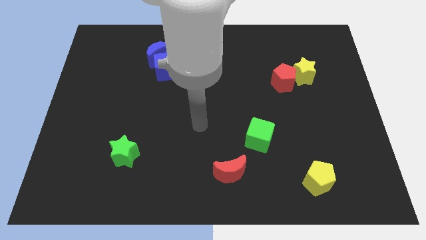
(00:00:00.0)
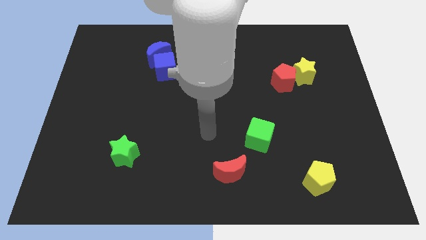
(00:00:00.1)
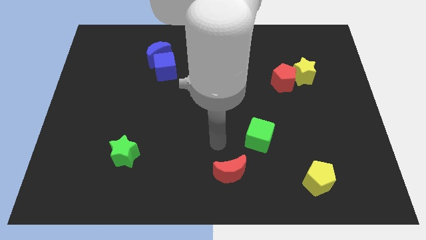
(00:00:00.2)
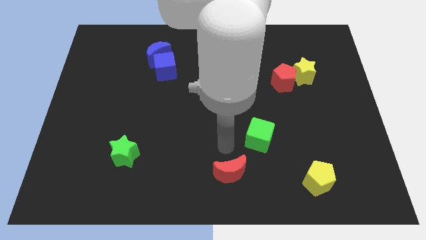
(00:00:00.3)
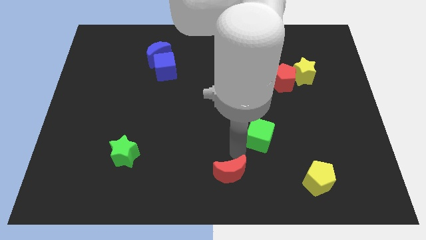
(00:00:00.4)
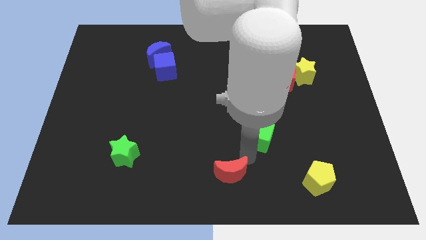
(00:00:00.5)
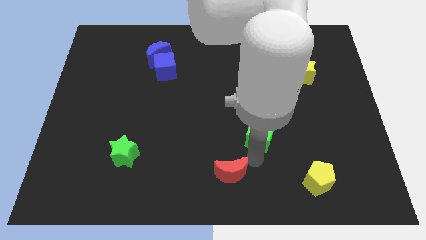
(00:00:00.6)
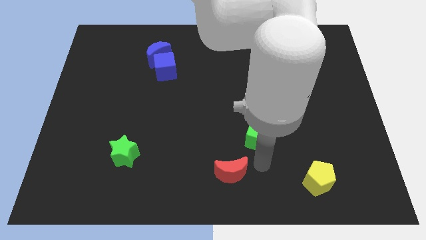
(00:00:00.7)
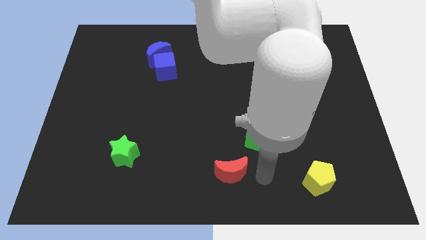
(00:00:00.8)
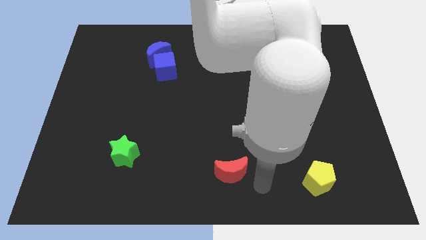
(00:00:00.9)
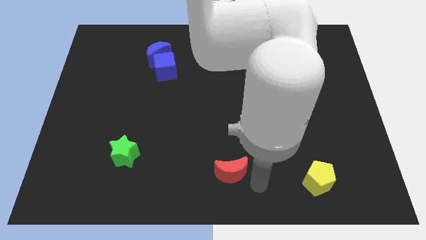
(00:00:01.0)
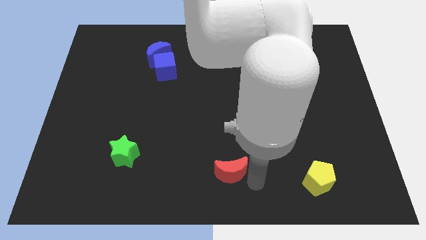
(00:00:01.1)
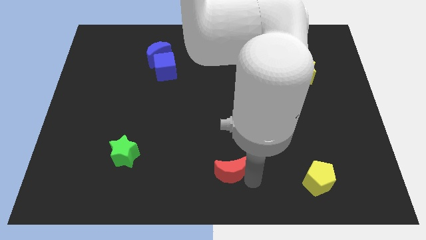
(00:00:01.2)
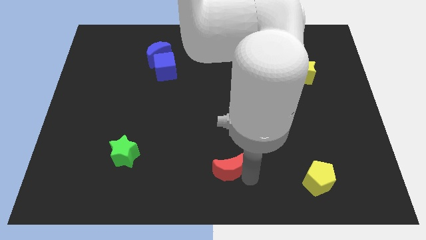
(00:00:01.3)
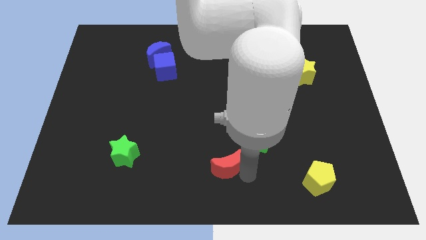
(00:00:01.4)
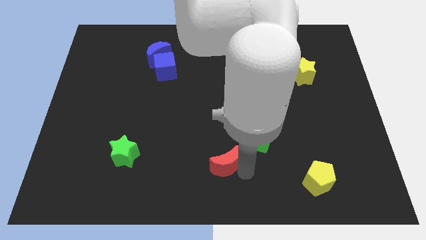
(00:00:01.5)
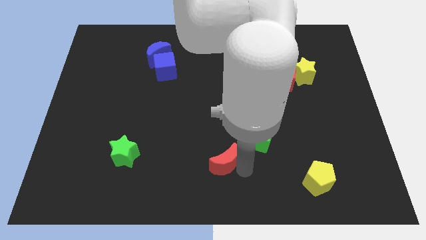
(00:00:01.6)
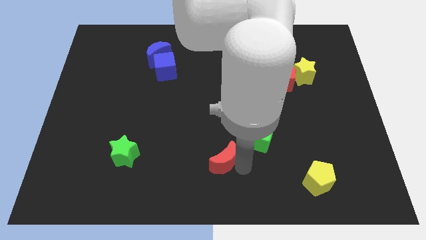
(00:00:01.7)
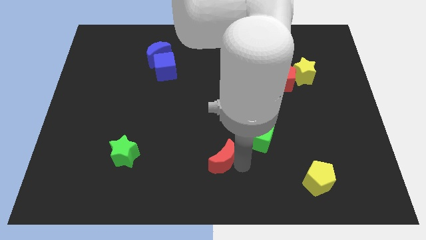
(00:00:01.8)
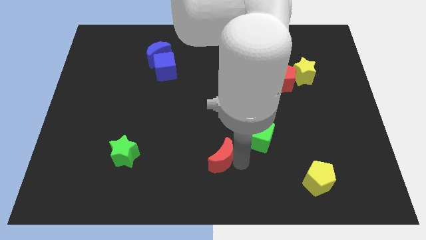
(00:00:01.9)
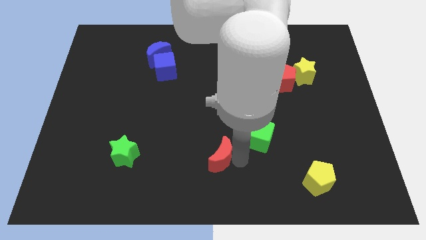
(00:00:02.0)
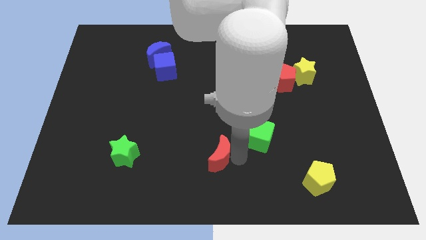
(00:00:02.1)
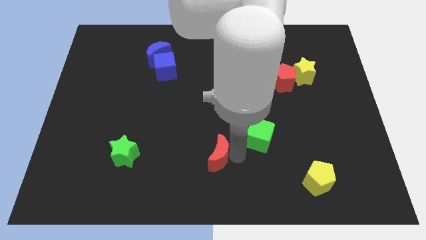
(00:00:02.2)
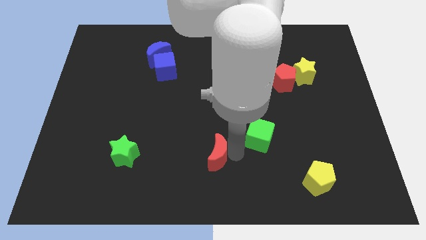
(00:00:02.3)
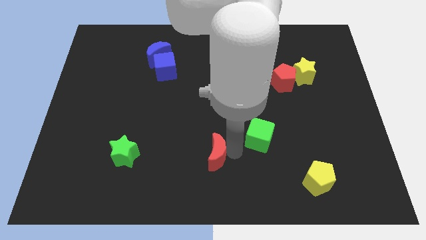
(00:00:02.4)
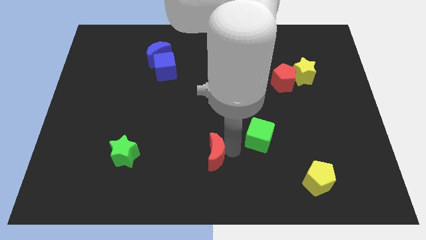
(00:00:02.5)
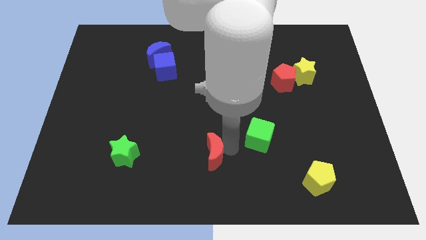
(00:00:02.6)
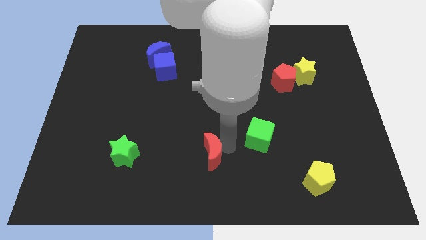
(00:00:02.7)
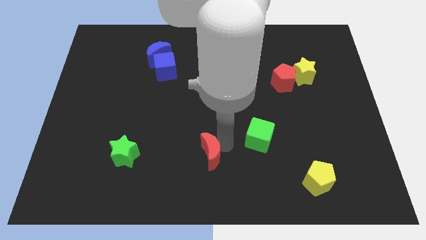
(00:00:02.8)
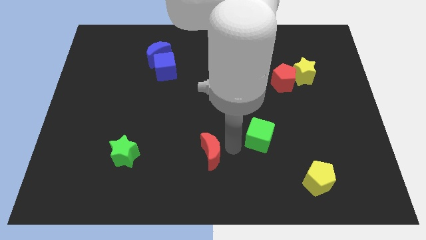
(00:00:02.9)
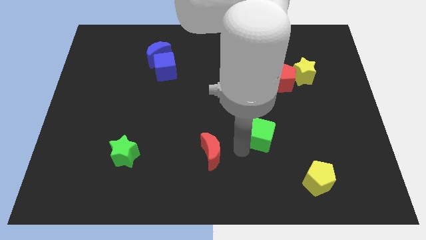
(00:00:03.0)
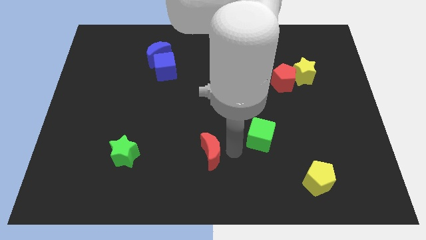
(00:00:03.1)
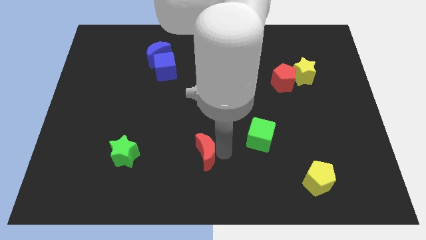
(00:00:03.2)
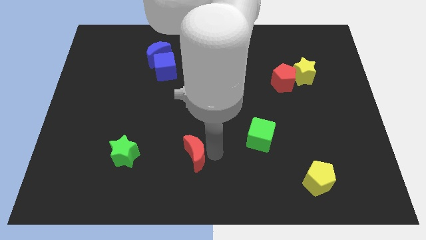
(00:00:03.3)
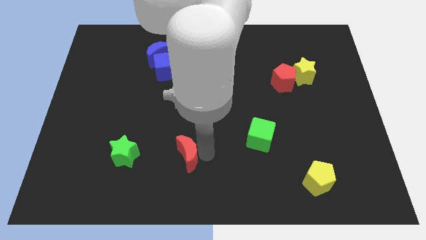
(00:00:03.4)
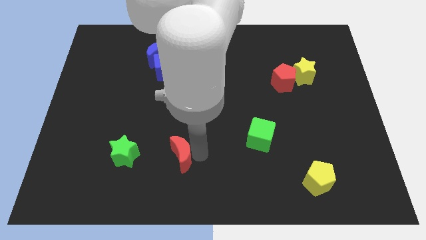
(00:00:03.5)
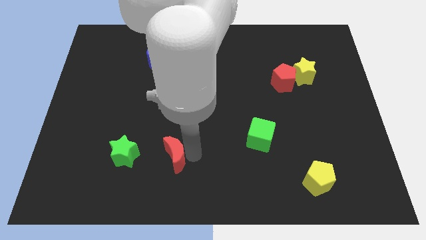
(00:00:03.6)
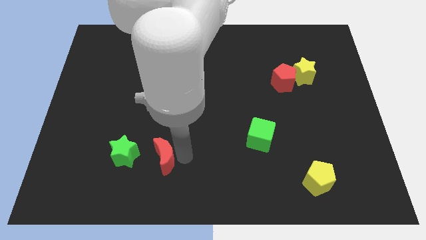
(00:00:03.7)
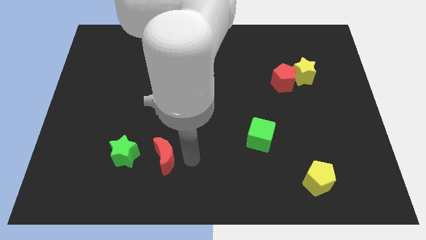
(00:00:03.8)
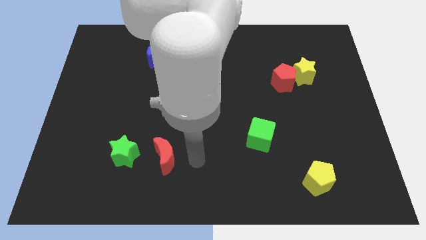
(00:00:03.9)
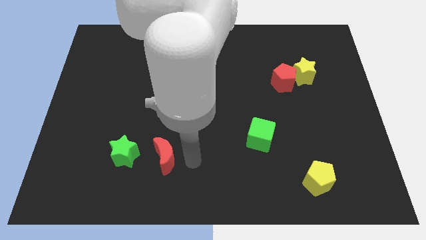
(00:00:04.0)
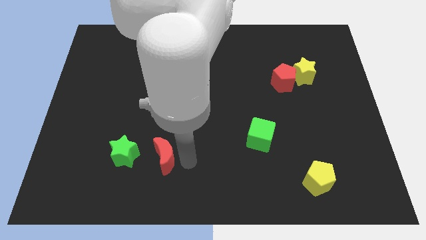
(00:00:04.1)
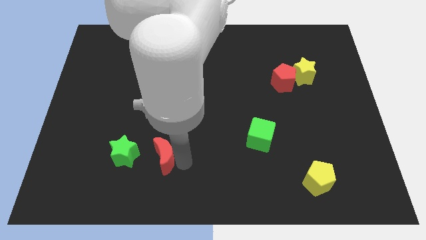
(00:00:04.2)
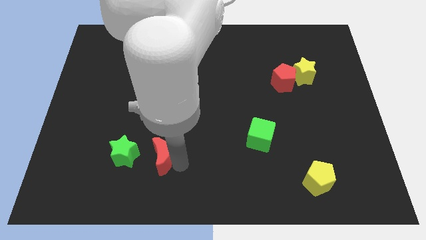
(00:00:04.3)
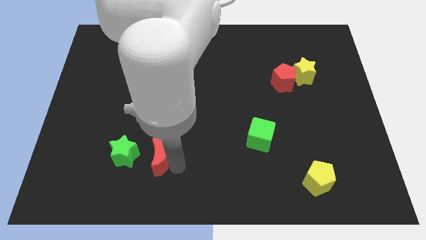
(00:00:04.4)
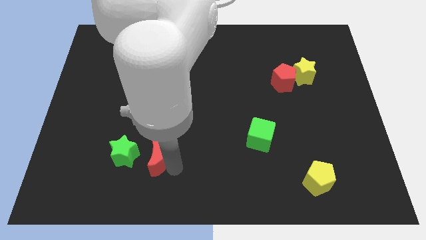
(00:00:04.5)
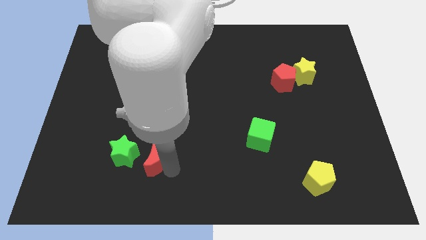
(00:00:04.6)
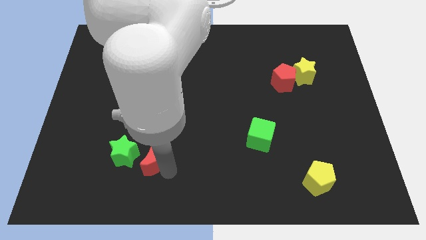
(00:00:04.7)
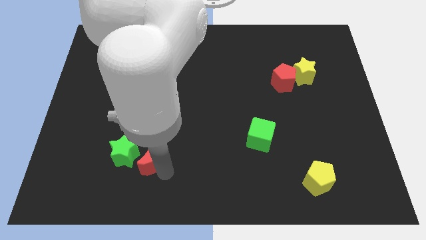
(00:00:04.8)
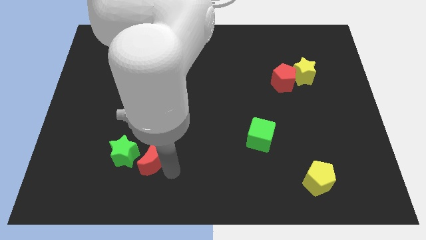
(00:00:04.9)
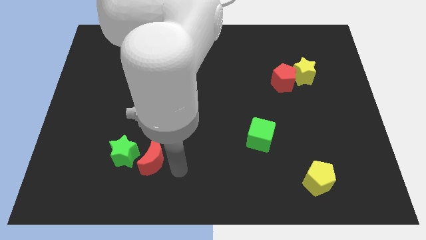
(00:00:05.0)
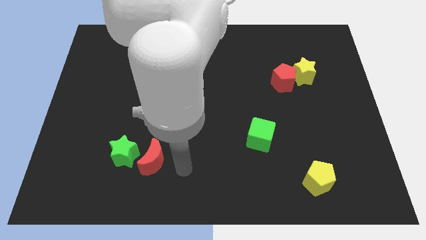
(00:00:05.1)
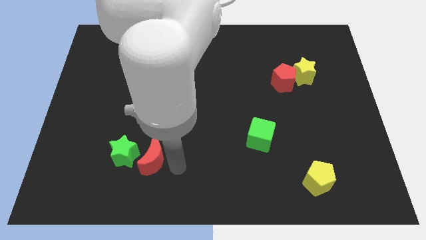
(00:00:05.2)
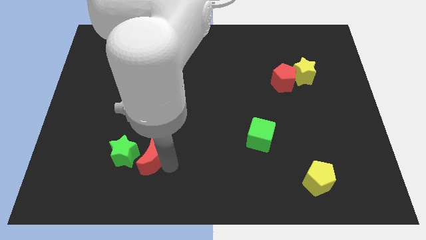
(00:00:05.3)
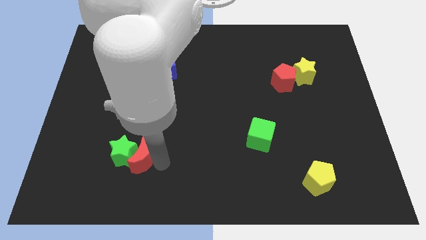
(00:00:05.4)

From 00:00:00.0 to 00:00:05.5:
push the red moon next to the green star
